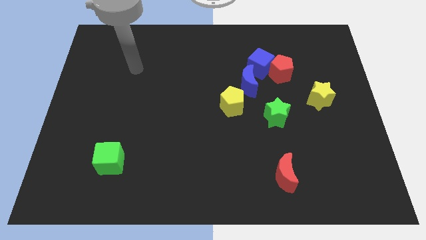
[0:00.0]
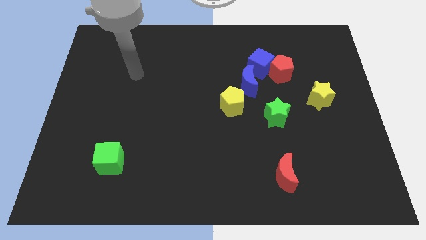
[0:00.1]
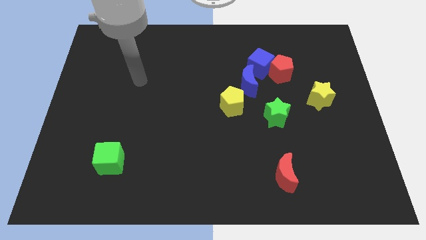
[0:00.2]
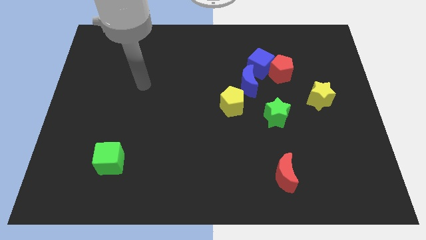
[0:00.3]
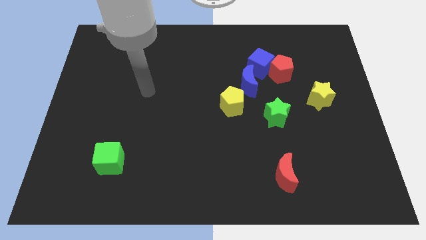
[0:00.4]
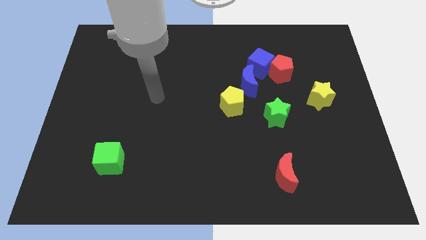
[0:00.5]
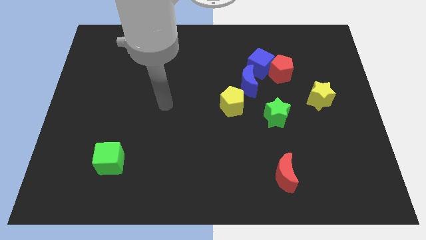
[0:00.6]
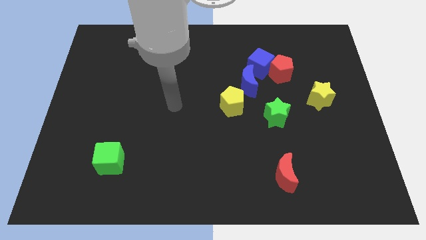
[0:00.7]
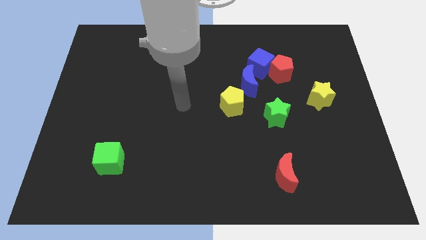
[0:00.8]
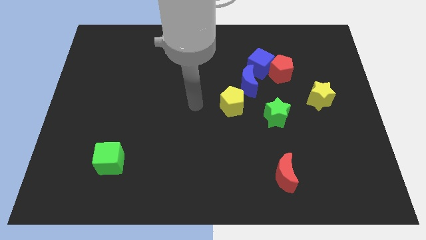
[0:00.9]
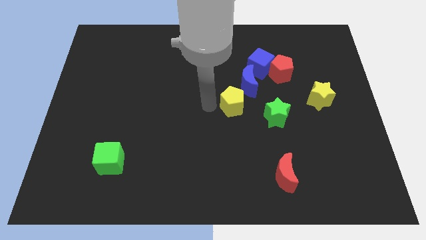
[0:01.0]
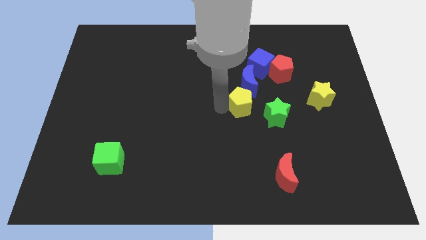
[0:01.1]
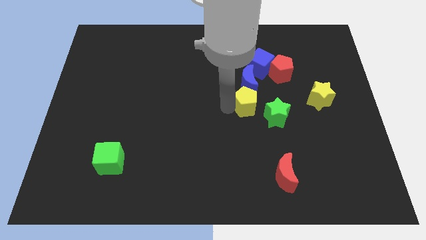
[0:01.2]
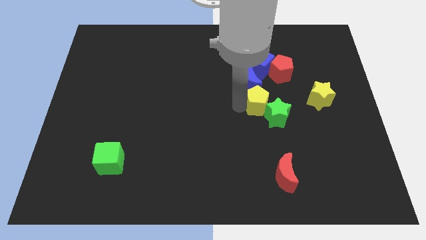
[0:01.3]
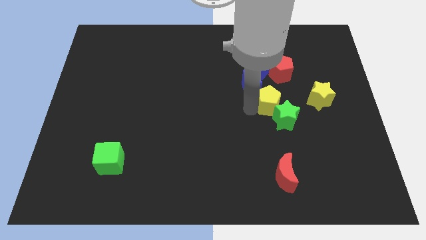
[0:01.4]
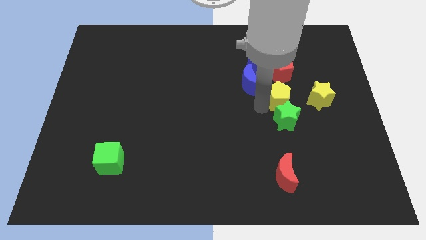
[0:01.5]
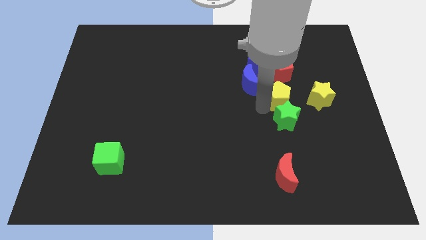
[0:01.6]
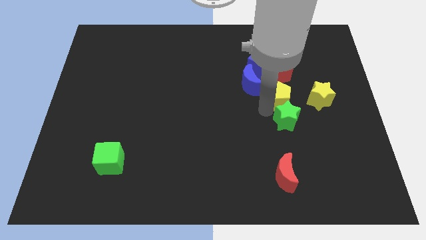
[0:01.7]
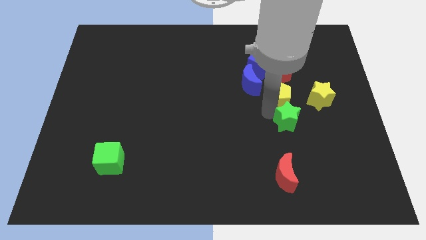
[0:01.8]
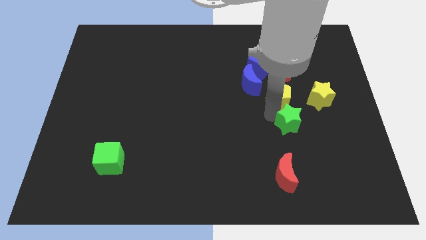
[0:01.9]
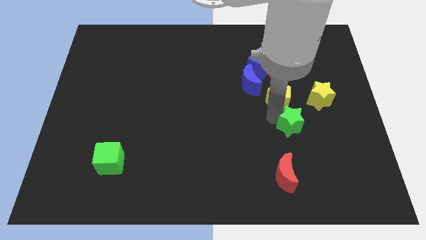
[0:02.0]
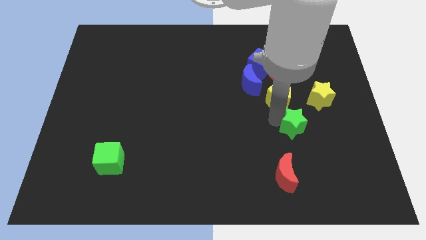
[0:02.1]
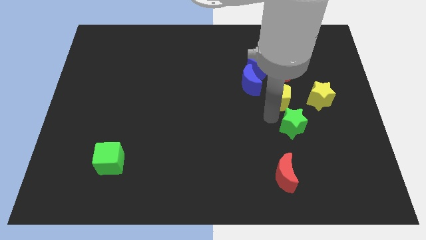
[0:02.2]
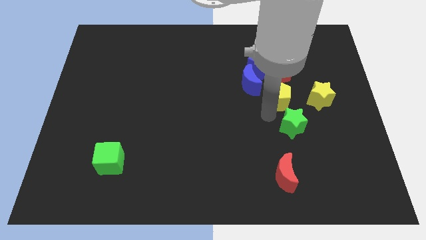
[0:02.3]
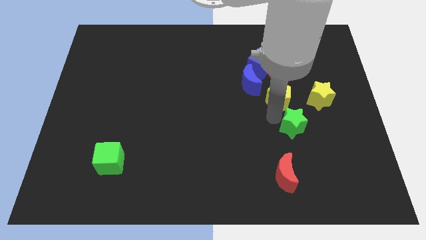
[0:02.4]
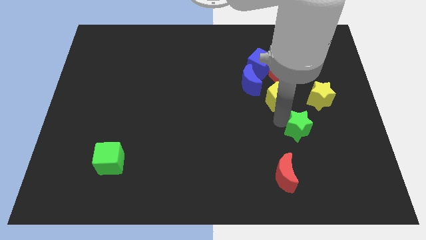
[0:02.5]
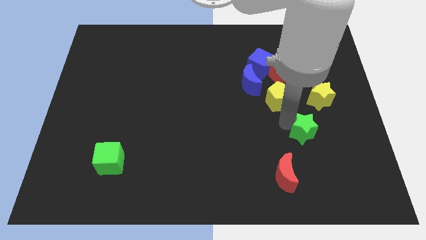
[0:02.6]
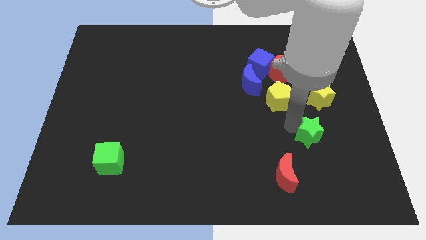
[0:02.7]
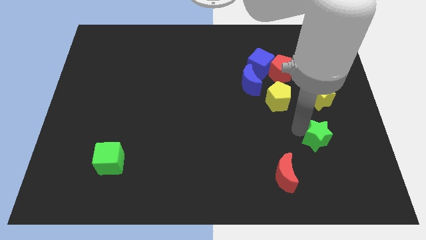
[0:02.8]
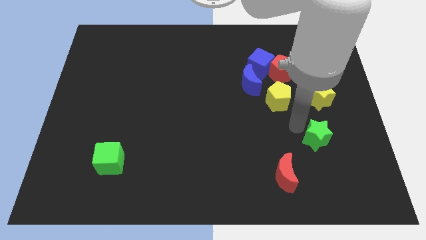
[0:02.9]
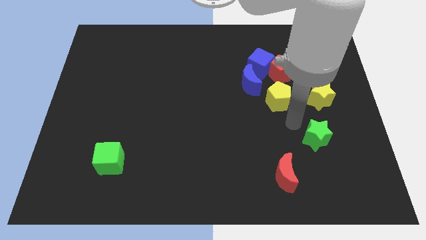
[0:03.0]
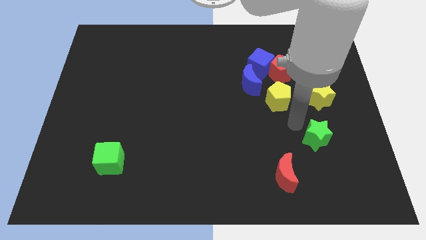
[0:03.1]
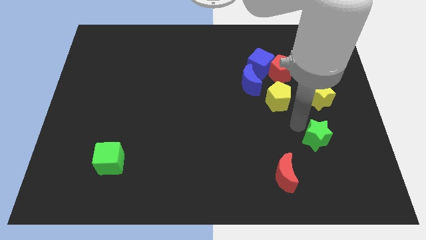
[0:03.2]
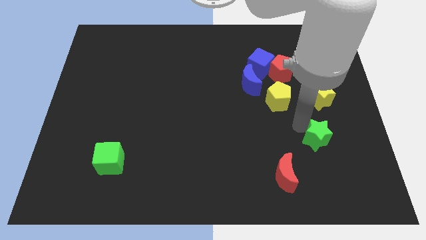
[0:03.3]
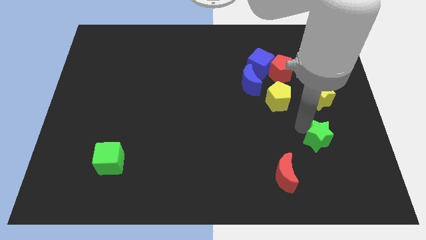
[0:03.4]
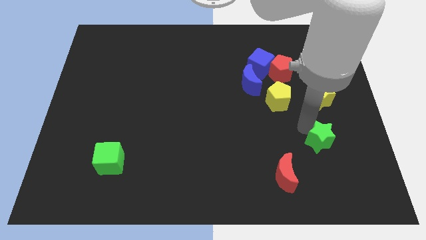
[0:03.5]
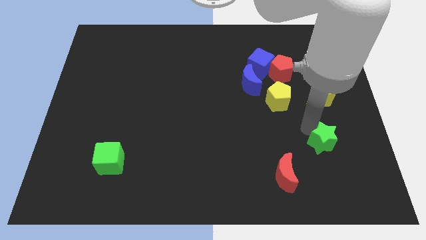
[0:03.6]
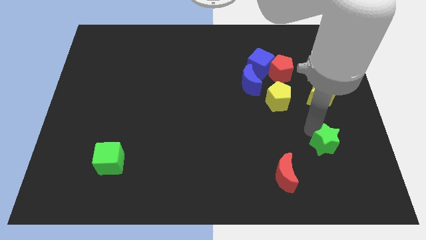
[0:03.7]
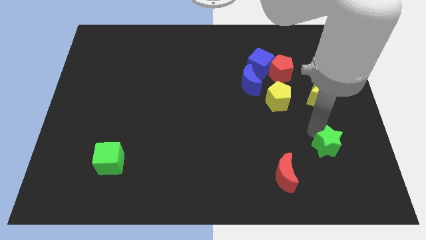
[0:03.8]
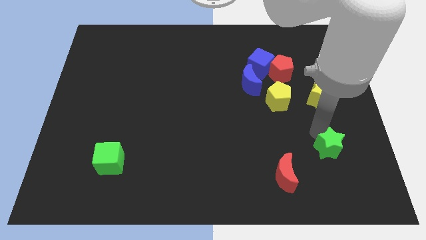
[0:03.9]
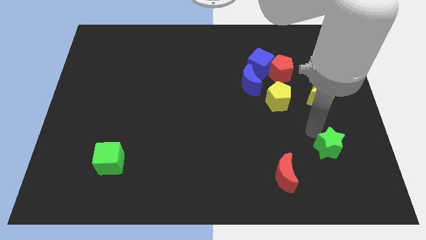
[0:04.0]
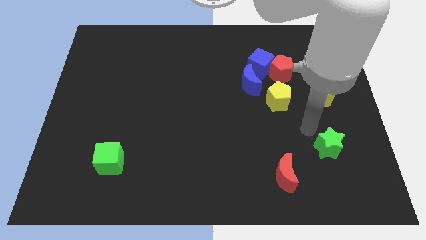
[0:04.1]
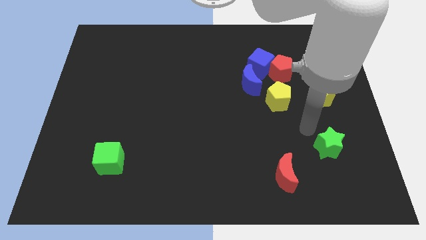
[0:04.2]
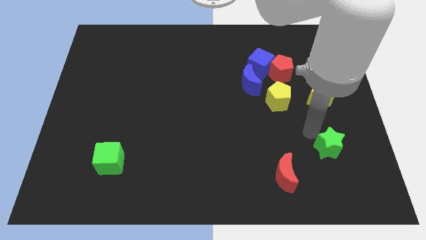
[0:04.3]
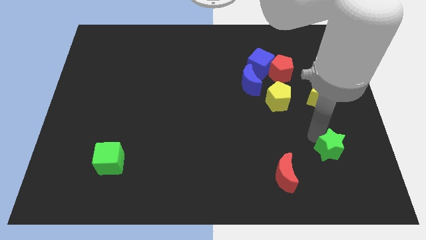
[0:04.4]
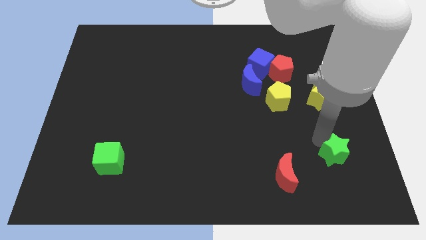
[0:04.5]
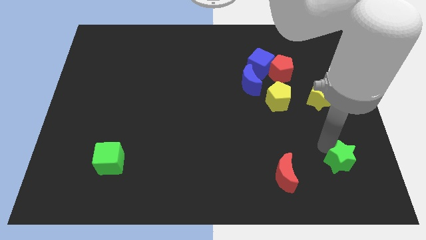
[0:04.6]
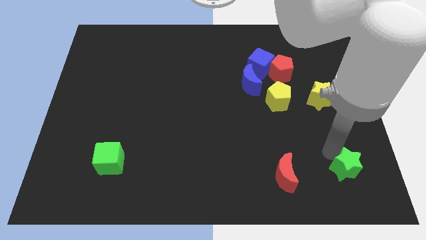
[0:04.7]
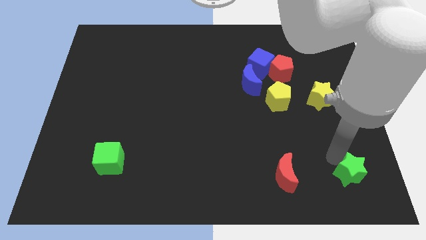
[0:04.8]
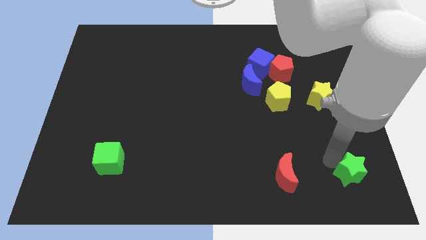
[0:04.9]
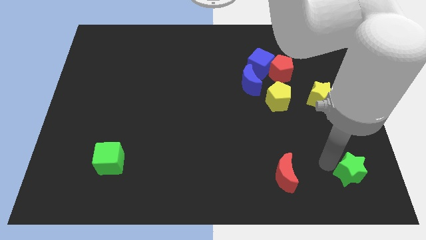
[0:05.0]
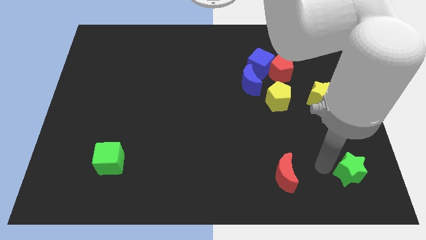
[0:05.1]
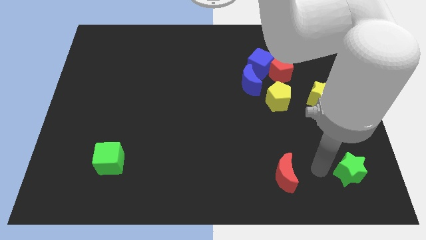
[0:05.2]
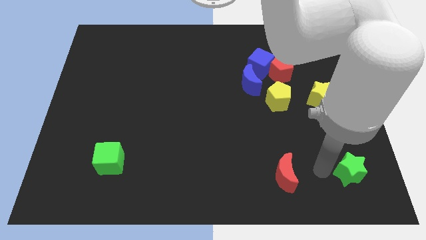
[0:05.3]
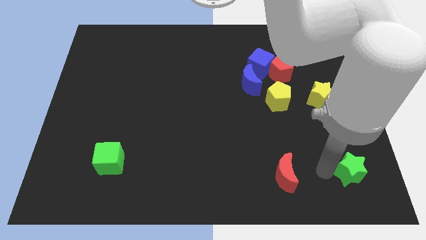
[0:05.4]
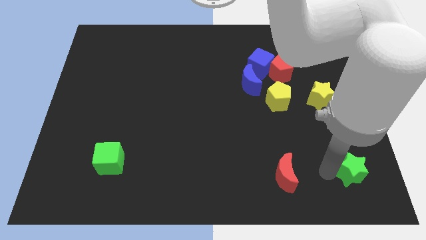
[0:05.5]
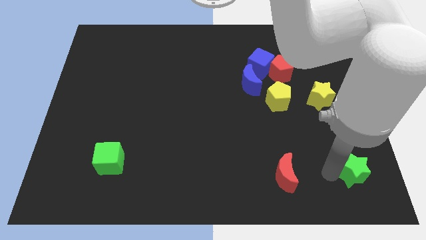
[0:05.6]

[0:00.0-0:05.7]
put the green star to the lower right corner

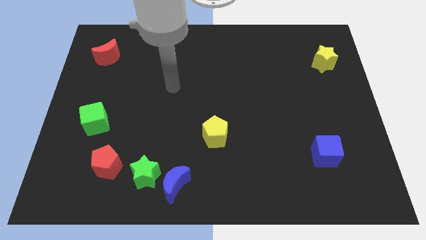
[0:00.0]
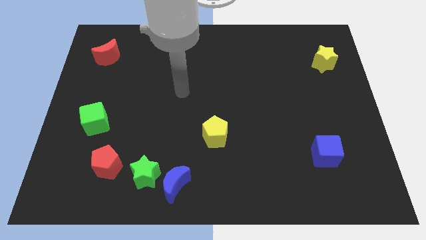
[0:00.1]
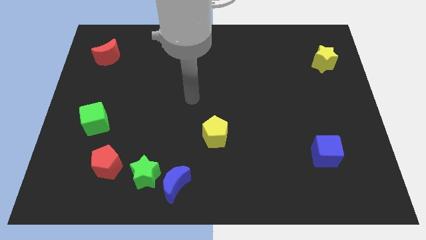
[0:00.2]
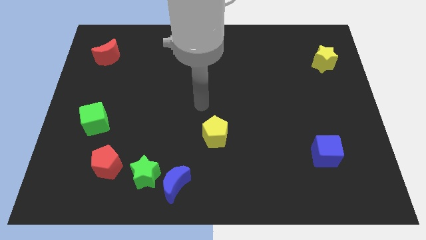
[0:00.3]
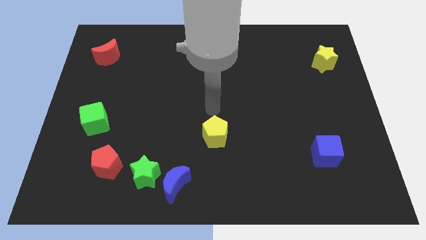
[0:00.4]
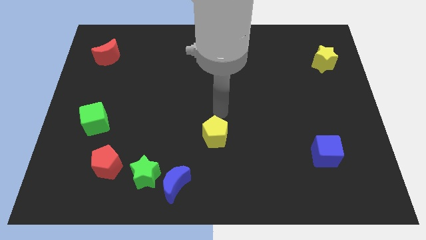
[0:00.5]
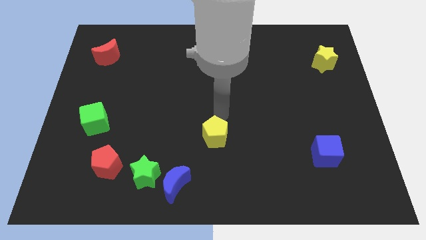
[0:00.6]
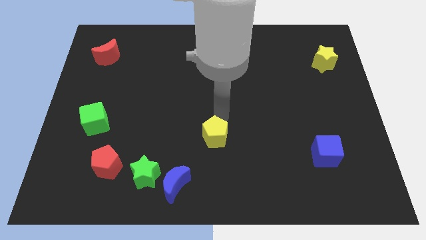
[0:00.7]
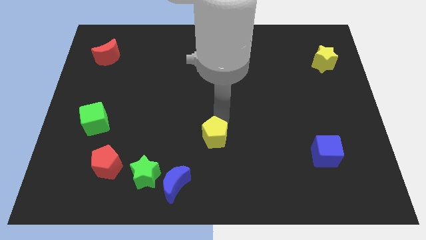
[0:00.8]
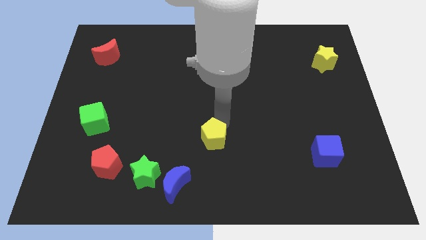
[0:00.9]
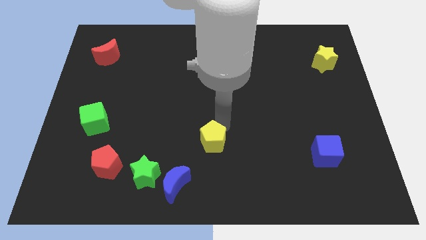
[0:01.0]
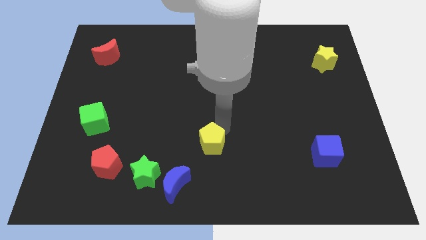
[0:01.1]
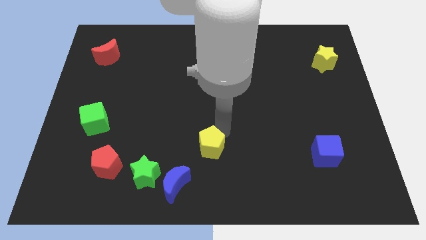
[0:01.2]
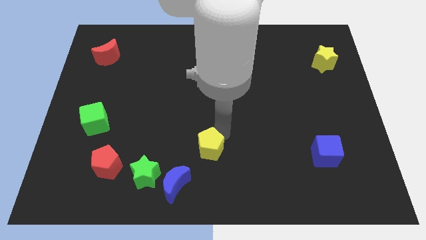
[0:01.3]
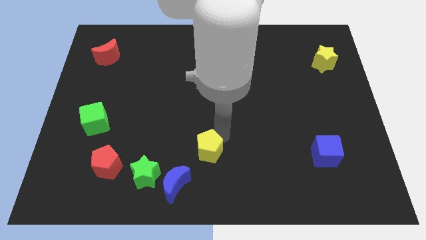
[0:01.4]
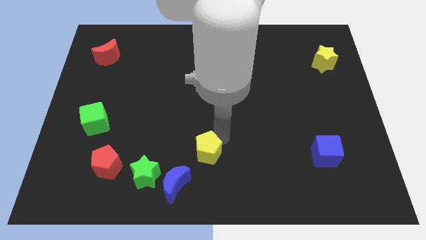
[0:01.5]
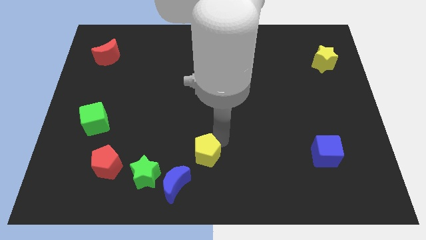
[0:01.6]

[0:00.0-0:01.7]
slide the yellow pentagon to the bottom side
